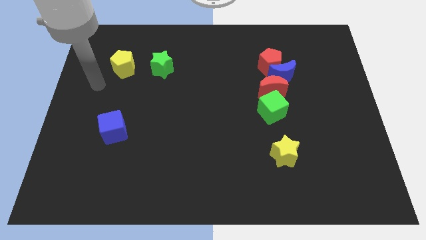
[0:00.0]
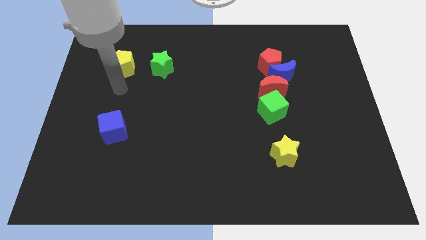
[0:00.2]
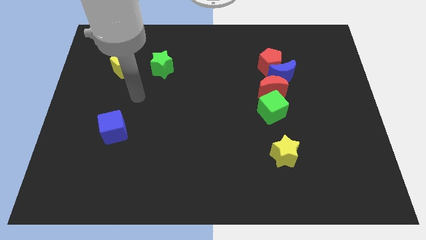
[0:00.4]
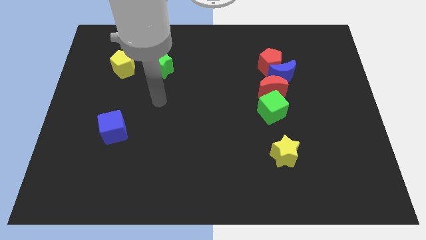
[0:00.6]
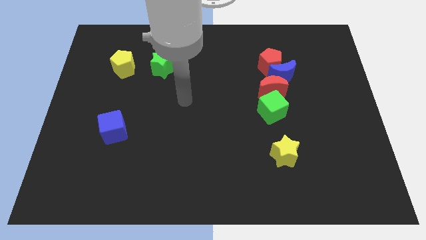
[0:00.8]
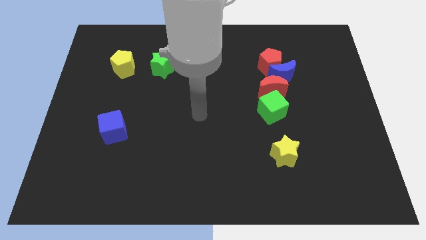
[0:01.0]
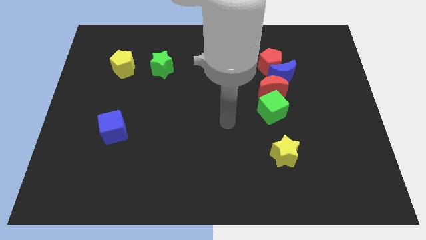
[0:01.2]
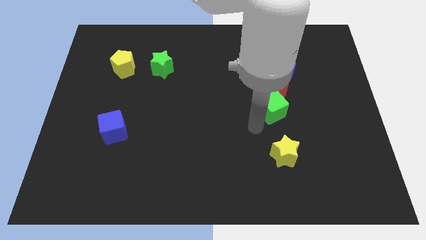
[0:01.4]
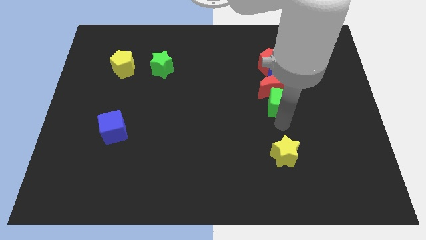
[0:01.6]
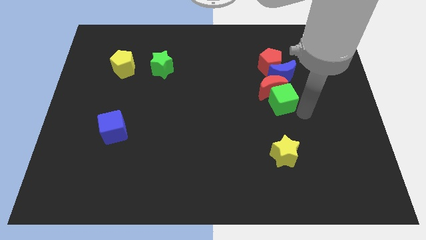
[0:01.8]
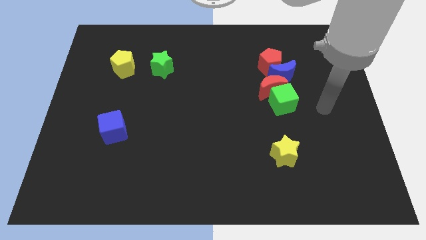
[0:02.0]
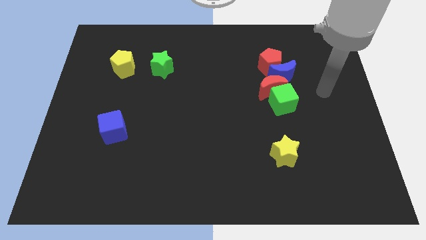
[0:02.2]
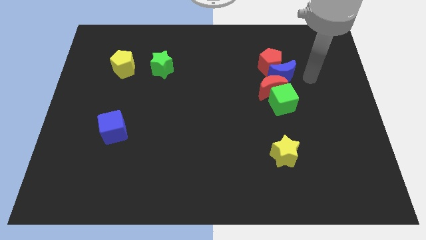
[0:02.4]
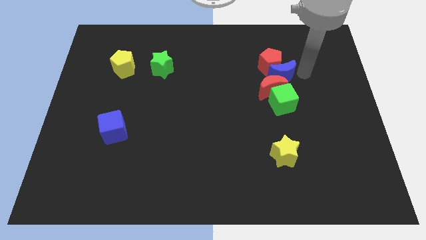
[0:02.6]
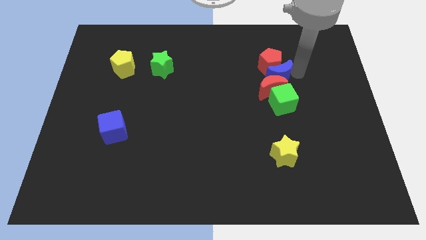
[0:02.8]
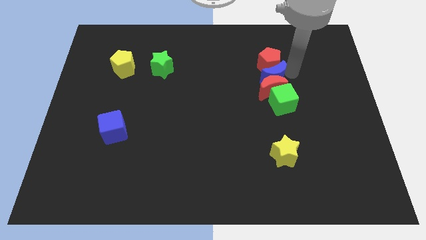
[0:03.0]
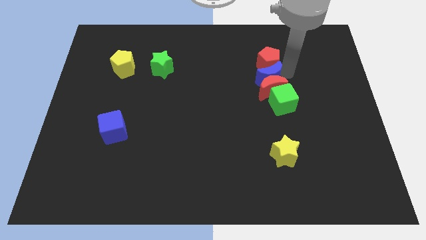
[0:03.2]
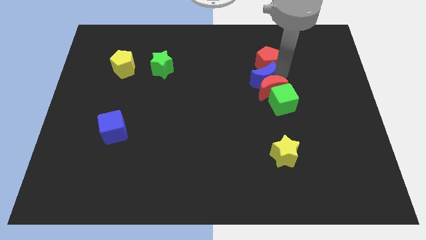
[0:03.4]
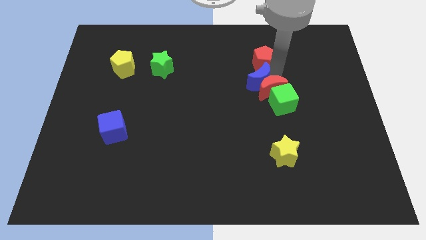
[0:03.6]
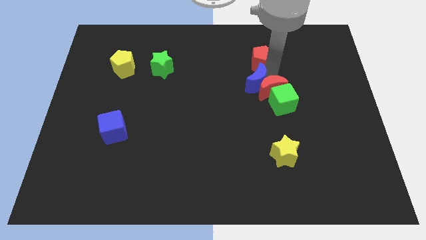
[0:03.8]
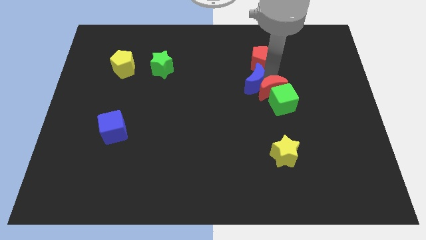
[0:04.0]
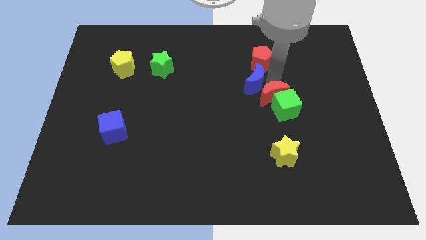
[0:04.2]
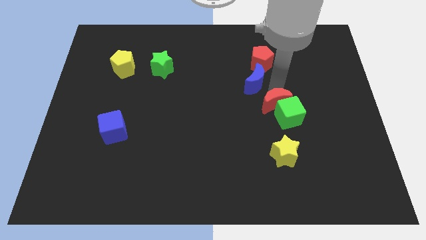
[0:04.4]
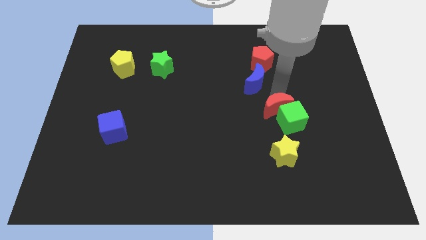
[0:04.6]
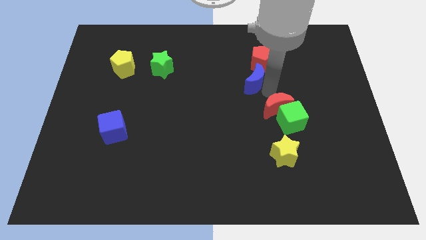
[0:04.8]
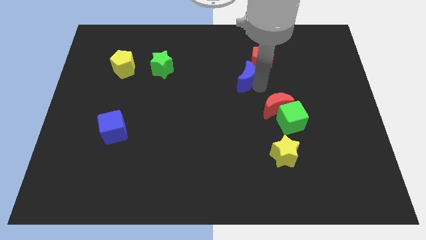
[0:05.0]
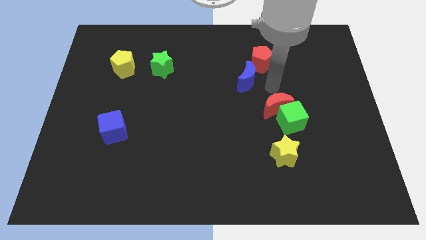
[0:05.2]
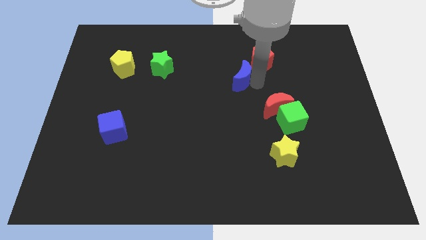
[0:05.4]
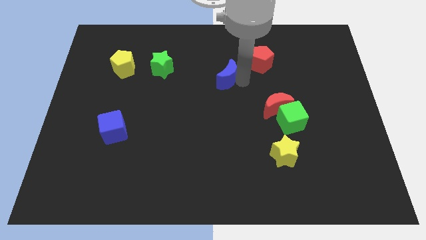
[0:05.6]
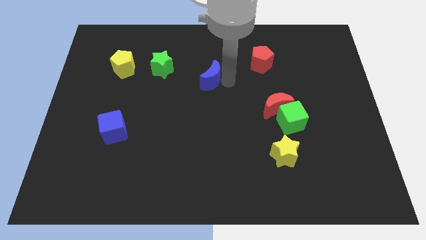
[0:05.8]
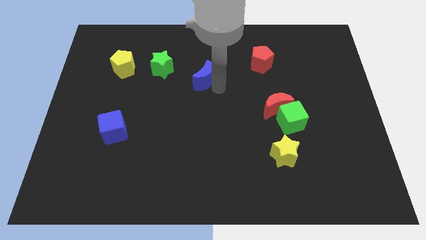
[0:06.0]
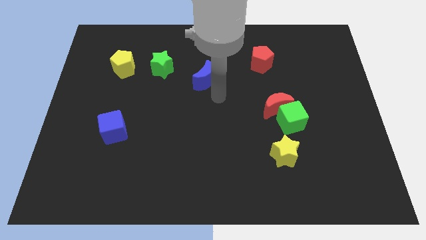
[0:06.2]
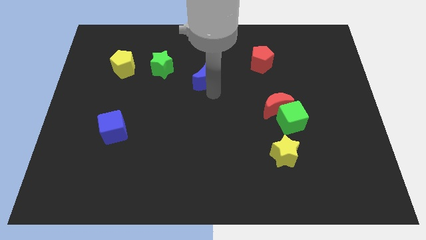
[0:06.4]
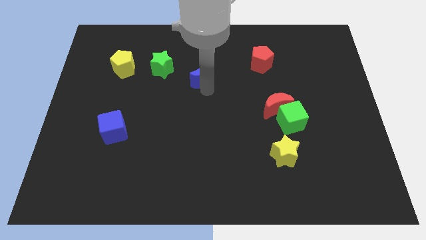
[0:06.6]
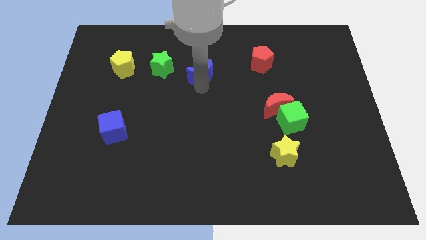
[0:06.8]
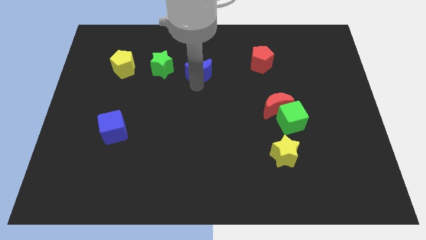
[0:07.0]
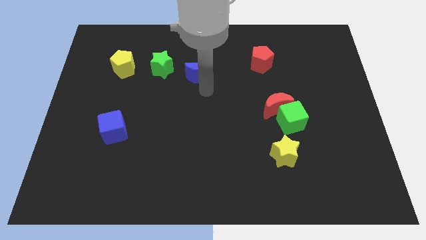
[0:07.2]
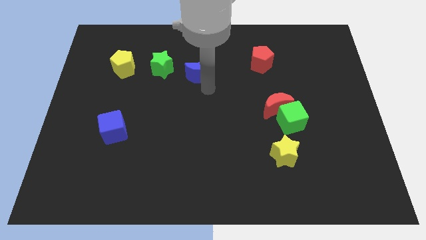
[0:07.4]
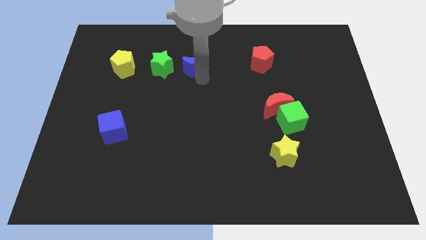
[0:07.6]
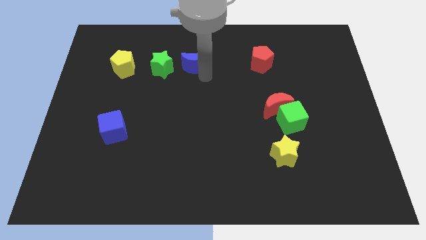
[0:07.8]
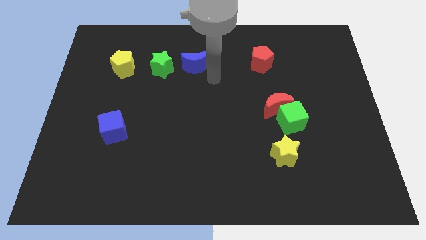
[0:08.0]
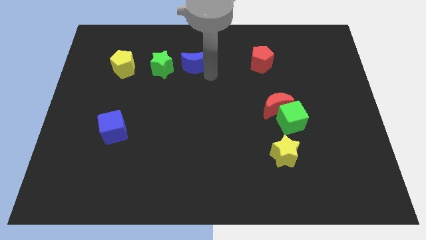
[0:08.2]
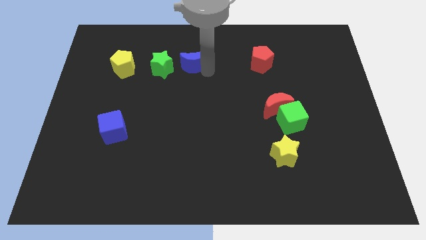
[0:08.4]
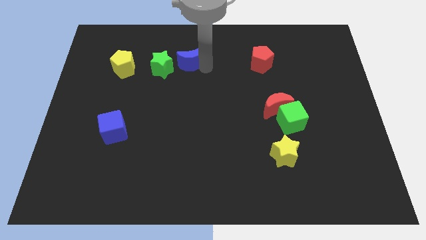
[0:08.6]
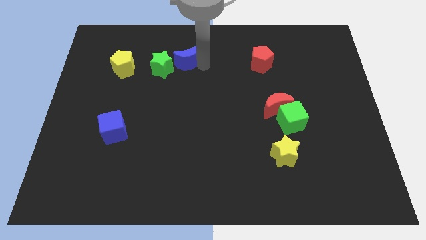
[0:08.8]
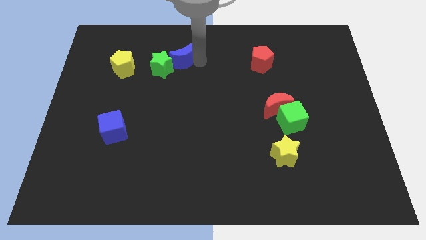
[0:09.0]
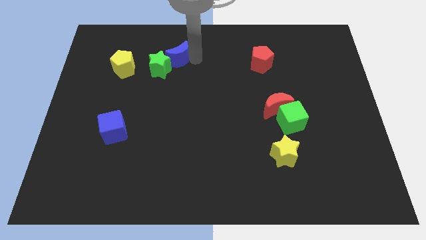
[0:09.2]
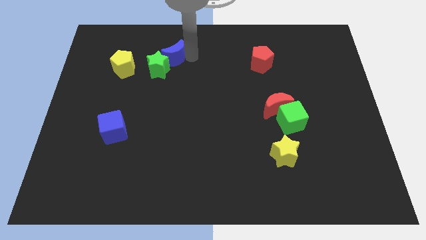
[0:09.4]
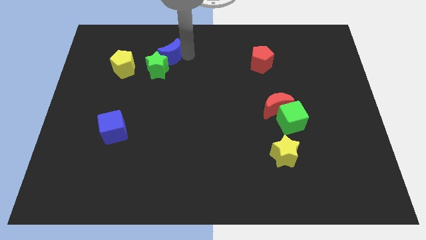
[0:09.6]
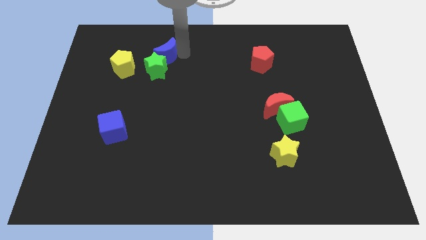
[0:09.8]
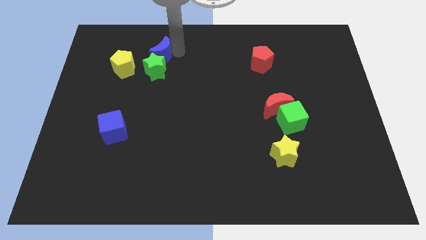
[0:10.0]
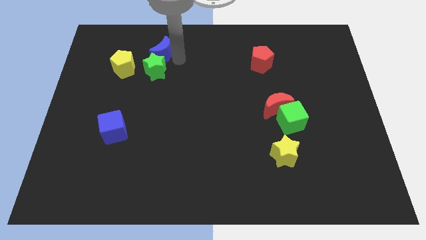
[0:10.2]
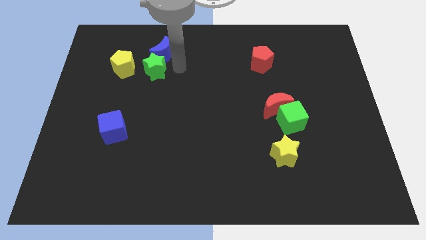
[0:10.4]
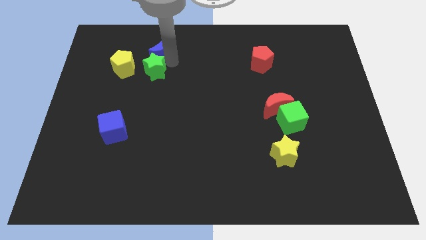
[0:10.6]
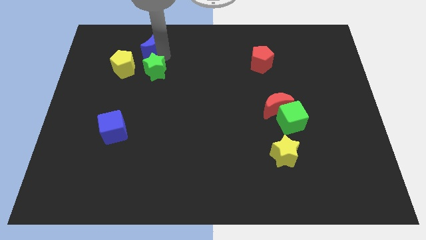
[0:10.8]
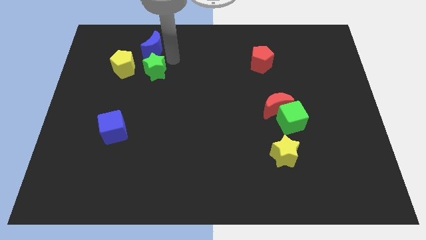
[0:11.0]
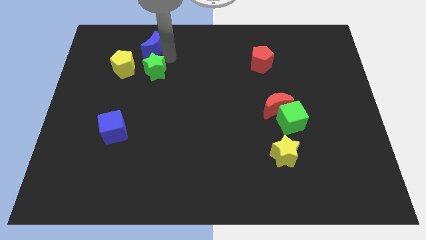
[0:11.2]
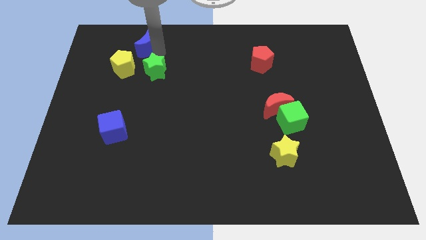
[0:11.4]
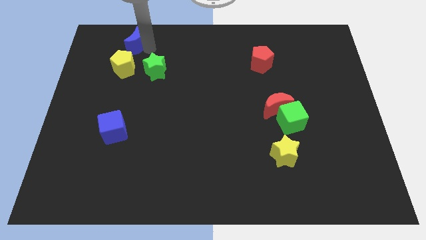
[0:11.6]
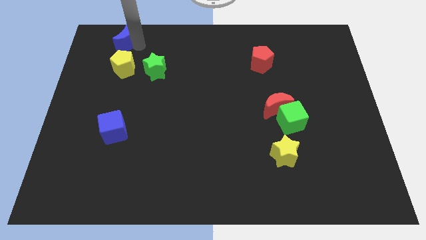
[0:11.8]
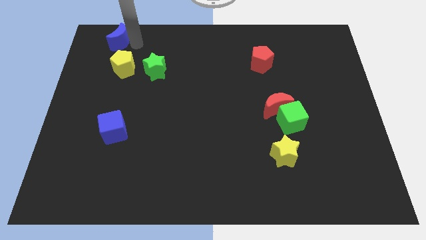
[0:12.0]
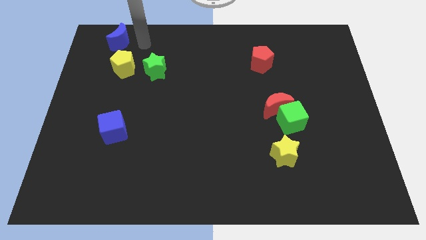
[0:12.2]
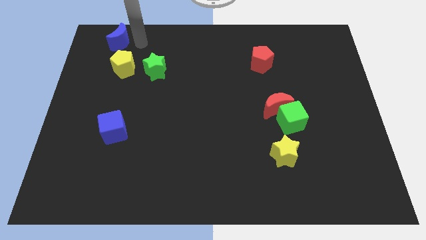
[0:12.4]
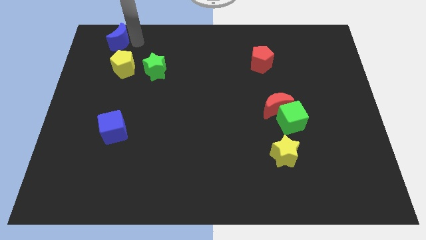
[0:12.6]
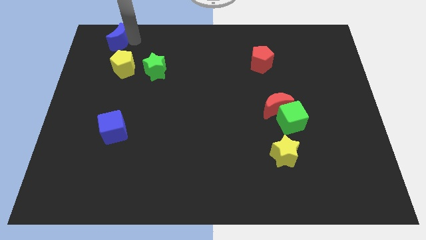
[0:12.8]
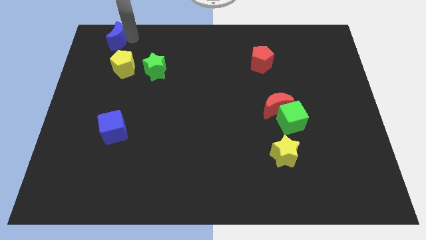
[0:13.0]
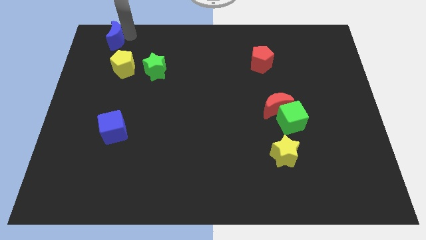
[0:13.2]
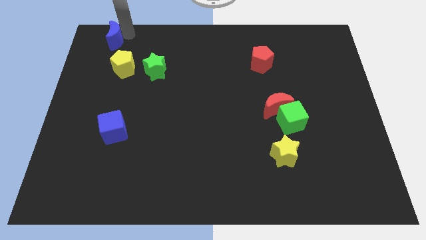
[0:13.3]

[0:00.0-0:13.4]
put the blue moon to the upper left corner
